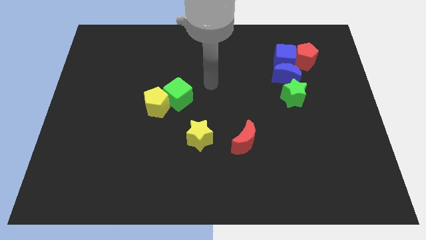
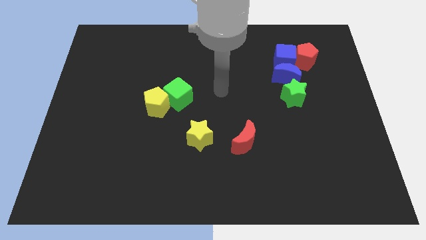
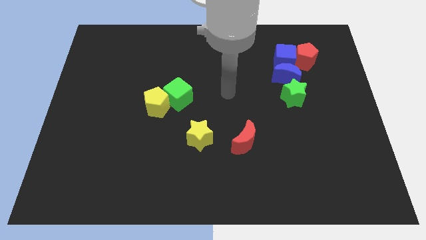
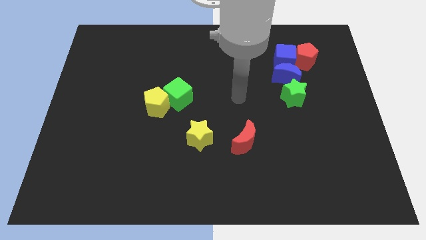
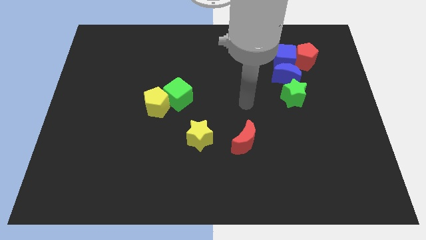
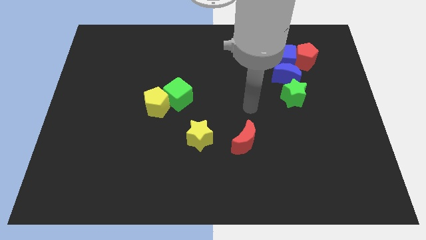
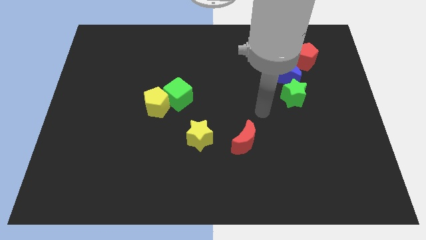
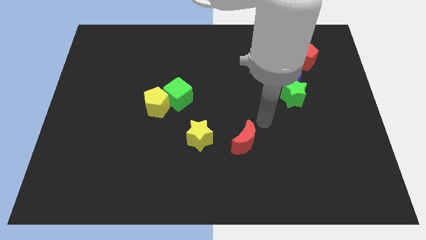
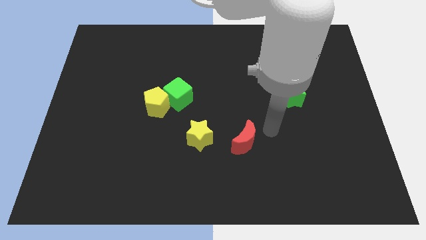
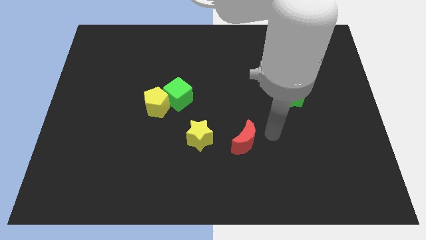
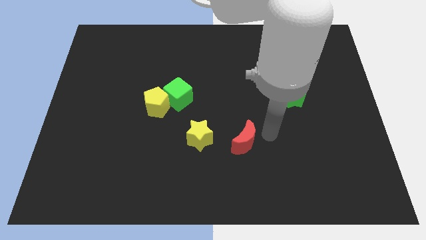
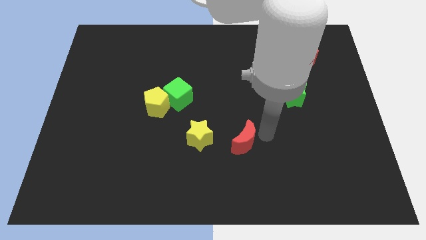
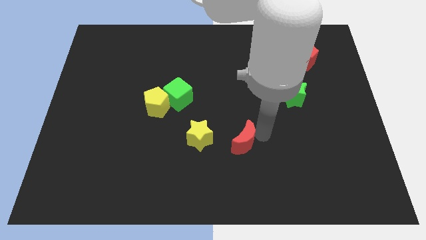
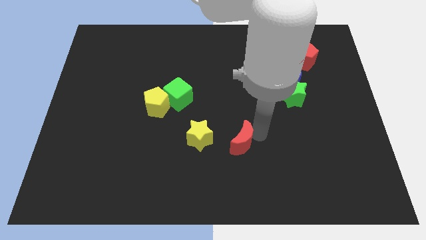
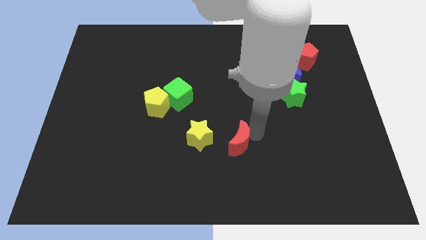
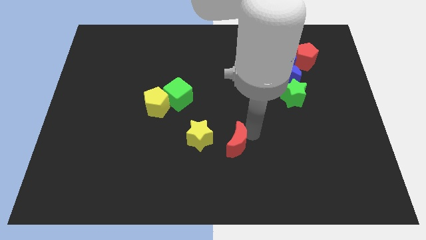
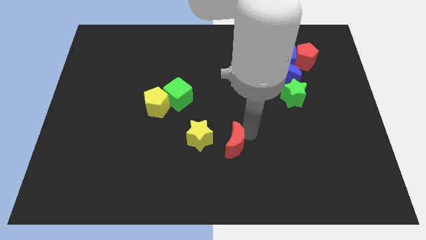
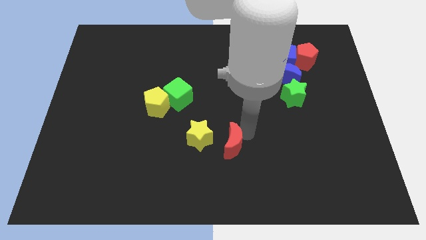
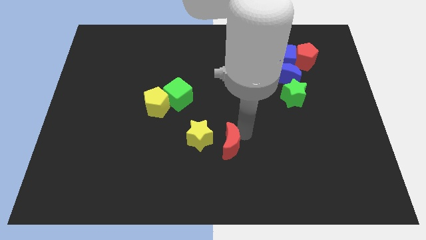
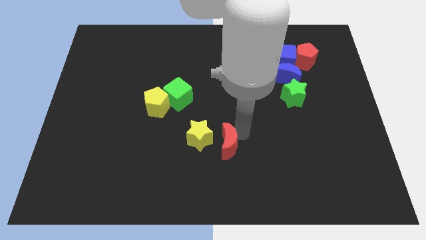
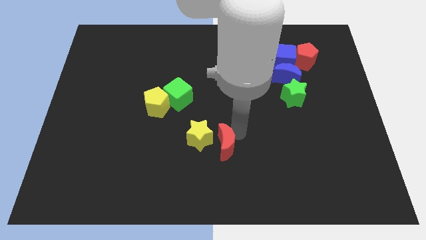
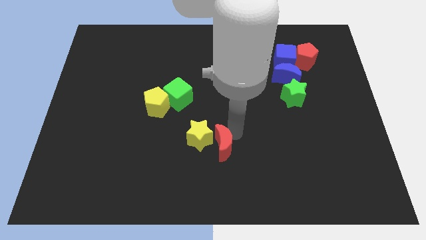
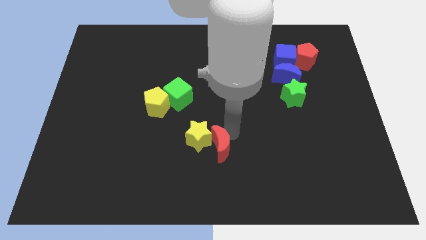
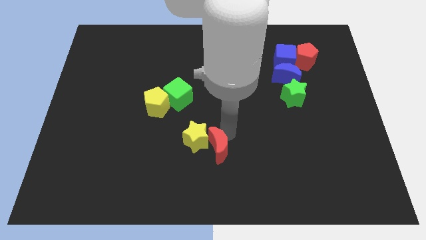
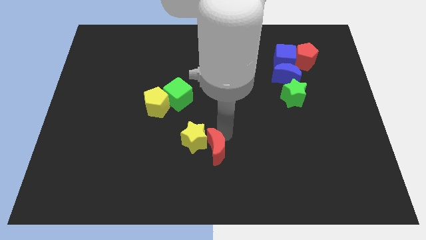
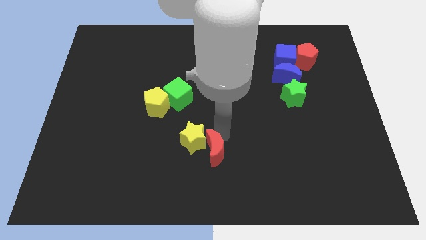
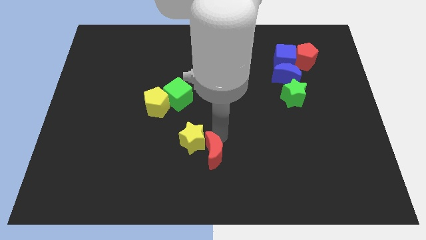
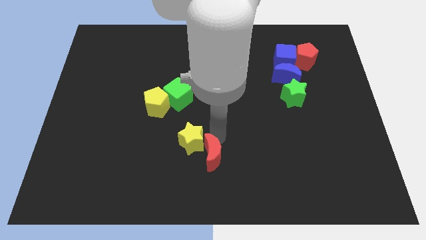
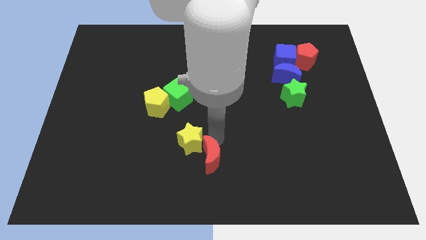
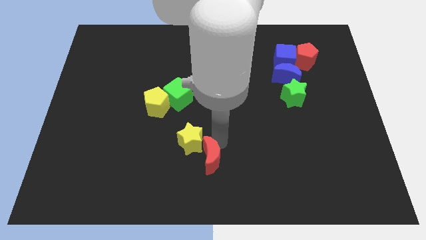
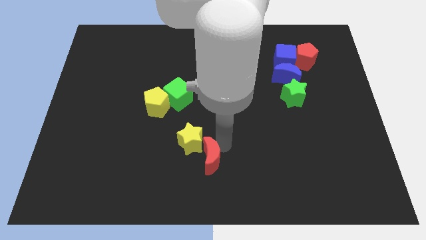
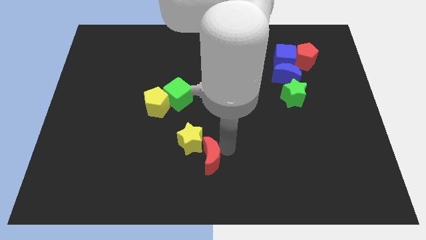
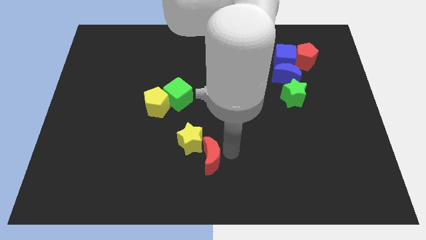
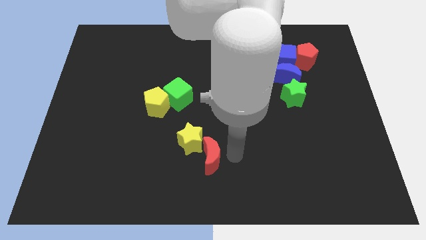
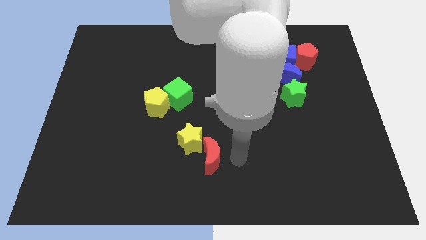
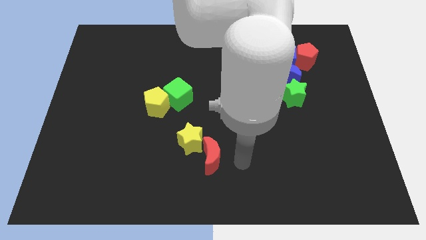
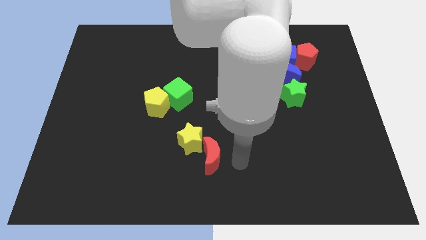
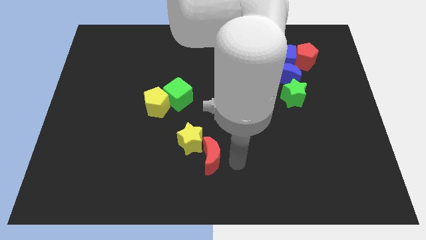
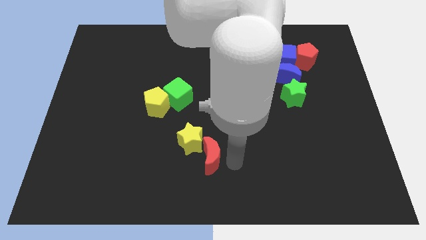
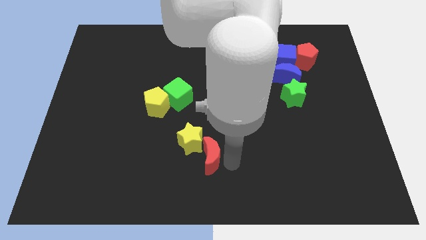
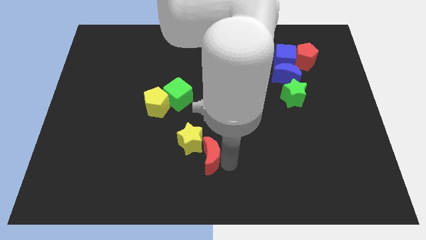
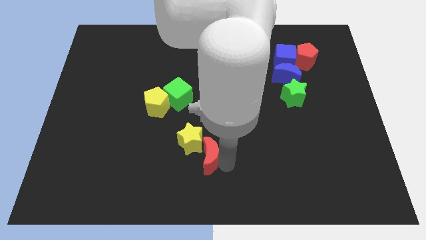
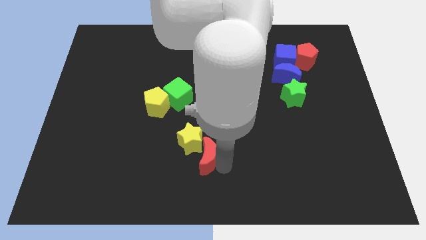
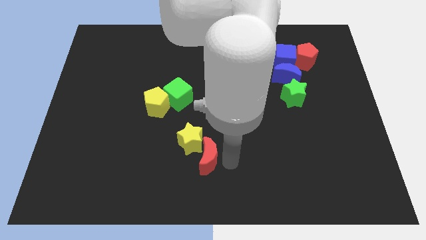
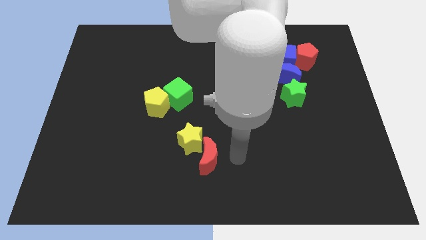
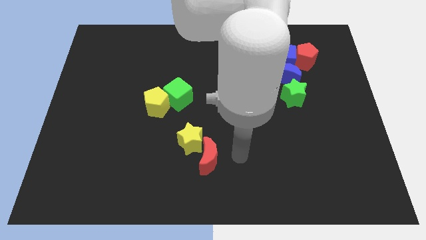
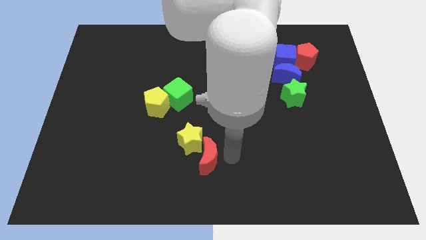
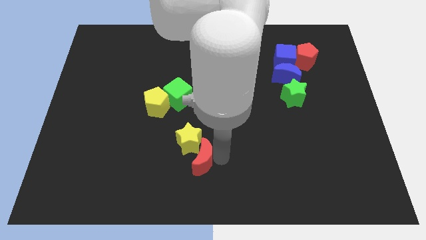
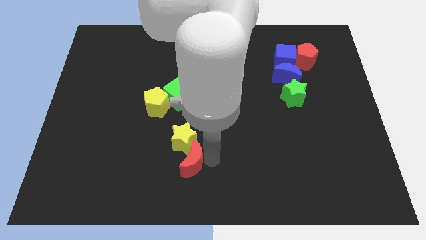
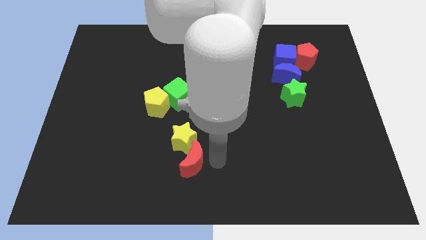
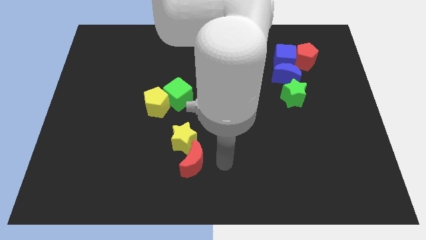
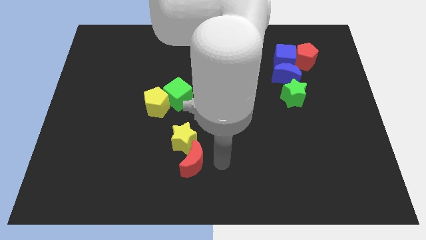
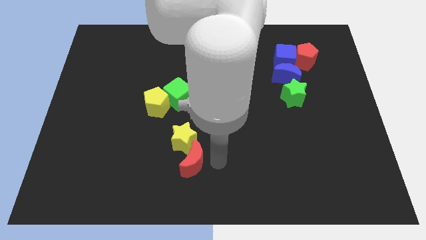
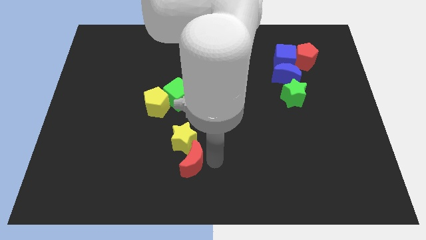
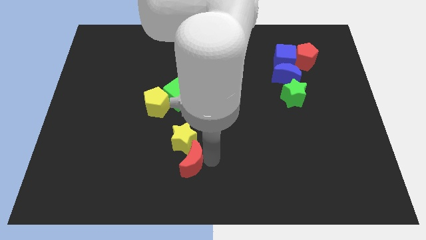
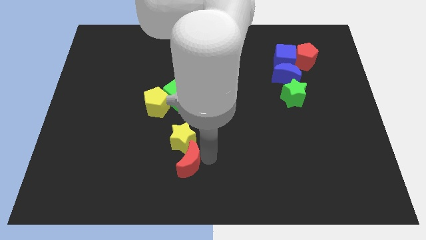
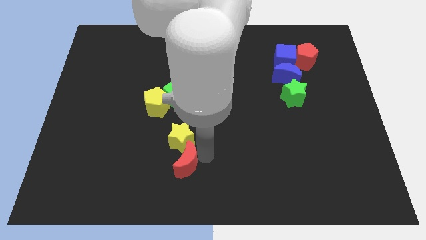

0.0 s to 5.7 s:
put the red moon to the bottom left of the yellow star

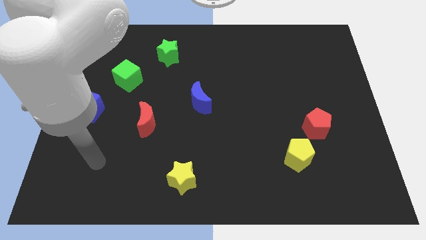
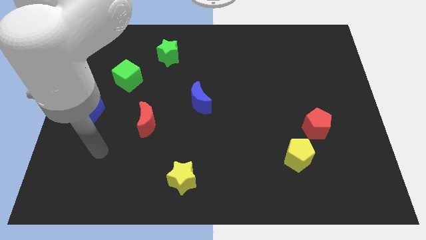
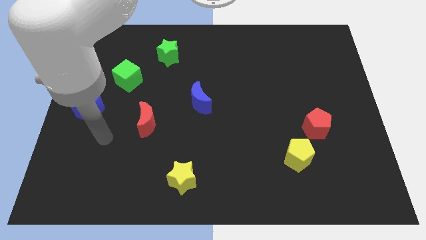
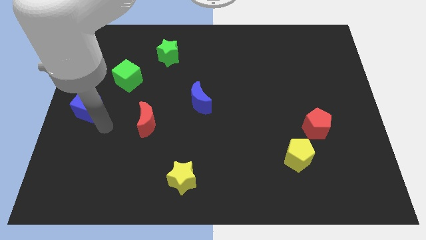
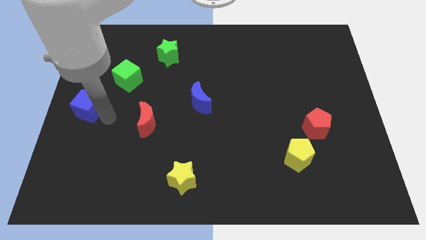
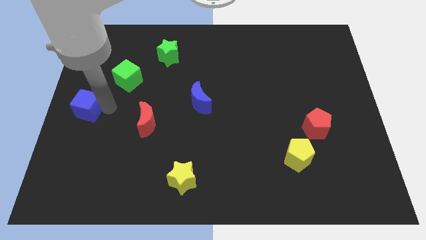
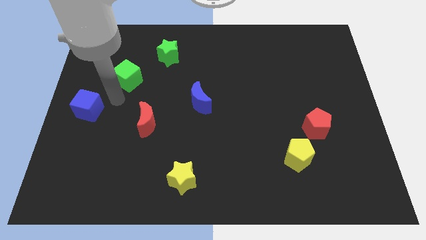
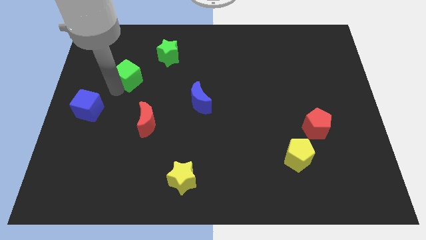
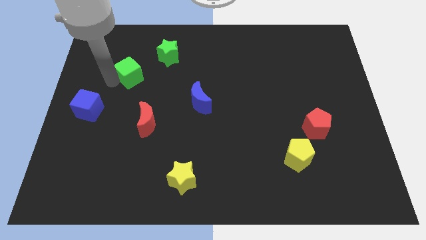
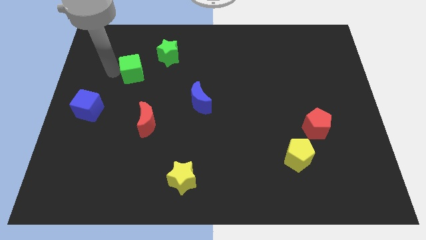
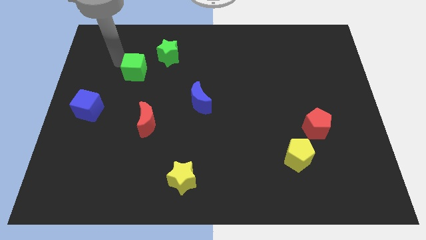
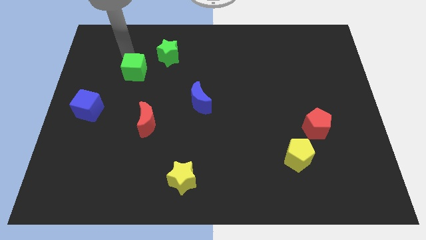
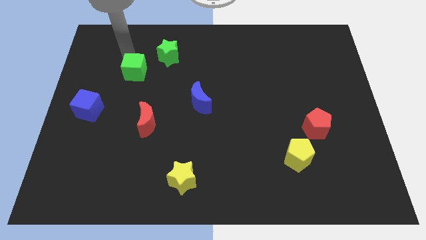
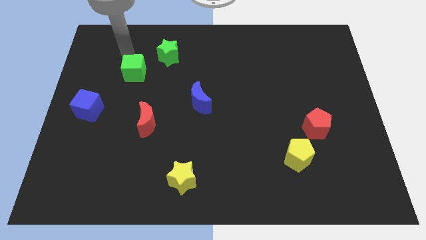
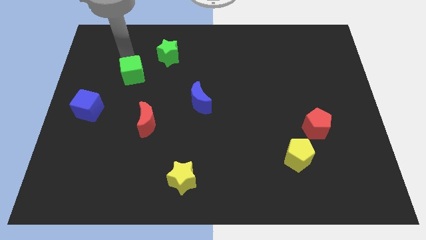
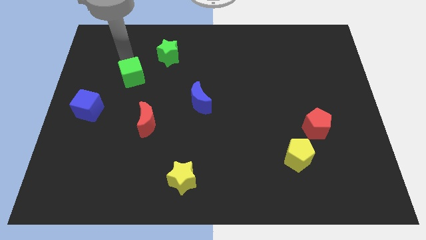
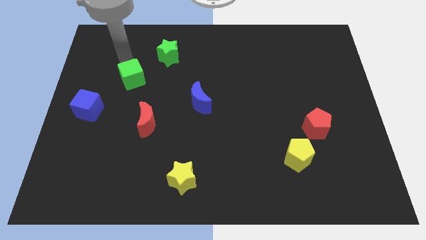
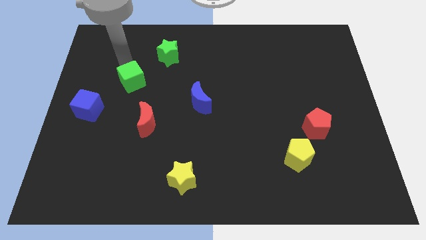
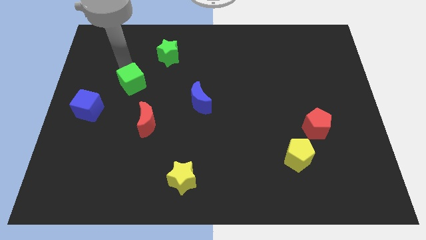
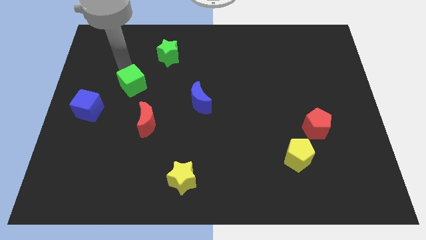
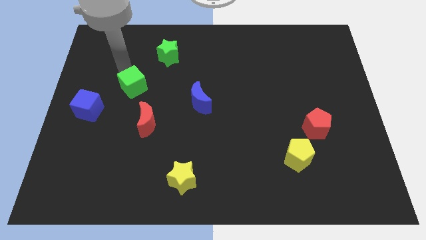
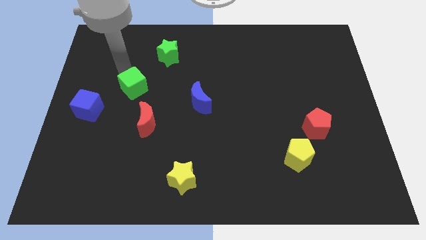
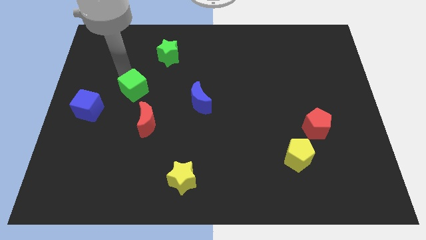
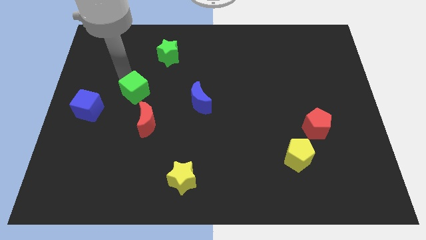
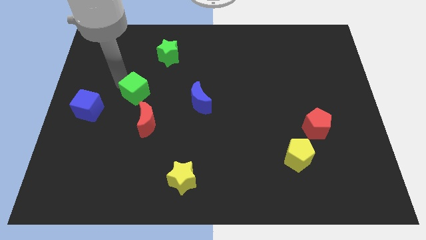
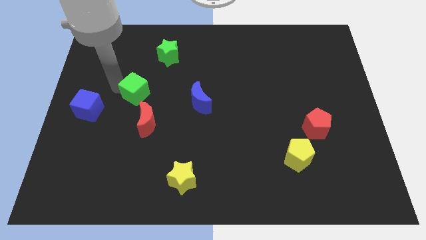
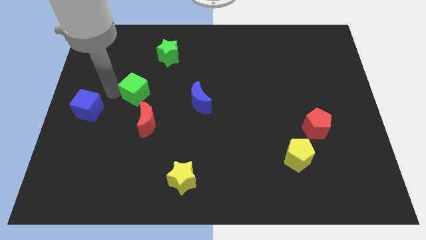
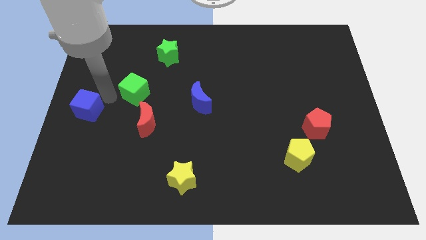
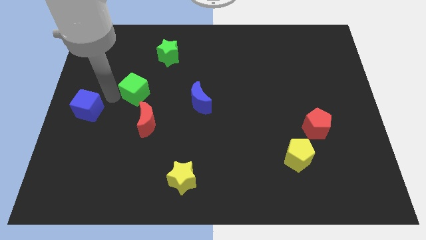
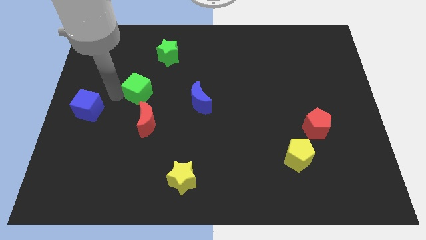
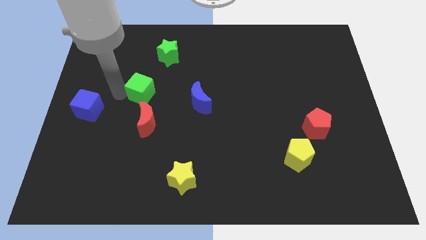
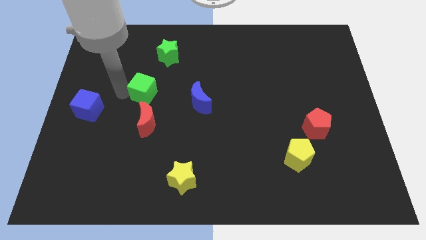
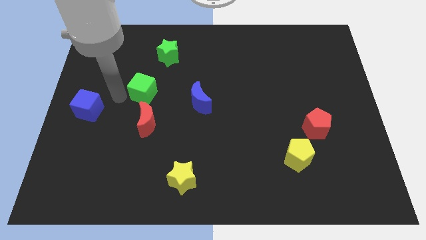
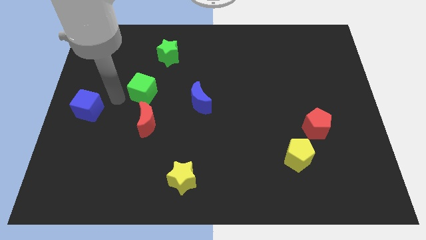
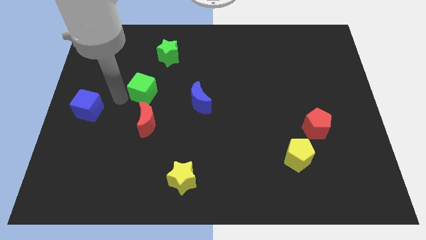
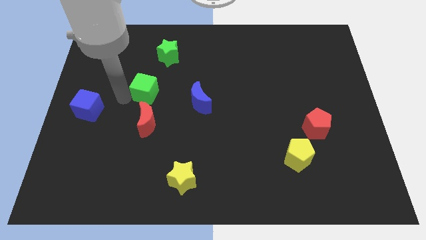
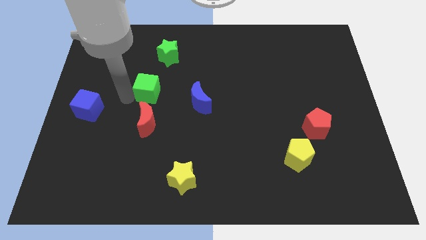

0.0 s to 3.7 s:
put the green cube to the bottom of the green star
